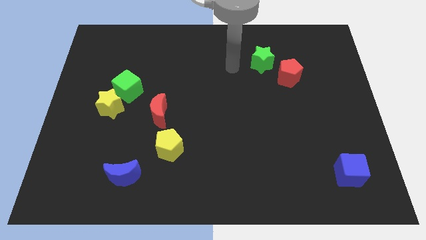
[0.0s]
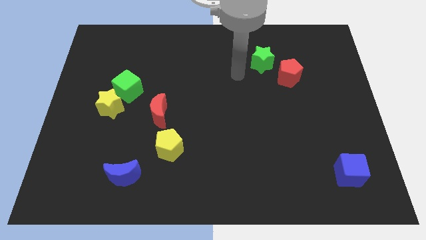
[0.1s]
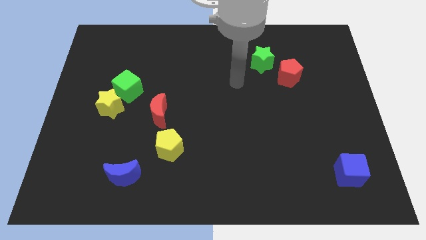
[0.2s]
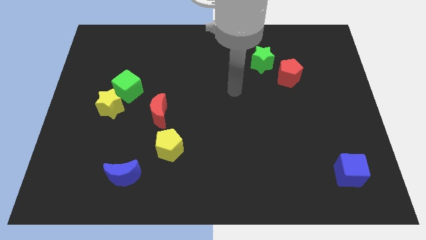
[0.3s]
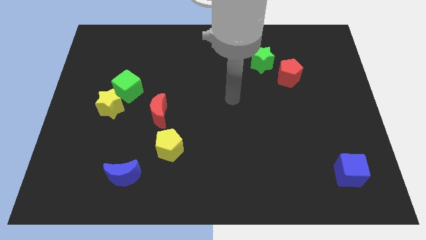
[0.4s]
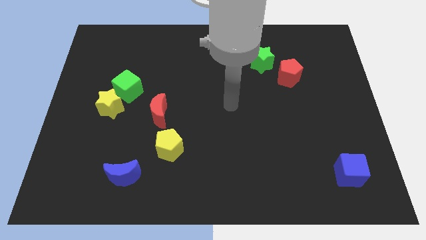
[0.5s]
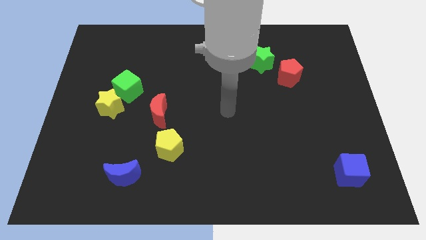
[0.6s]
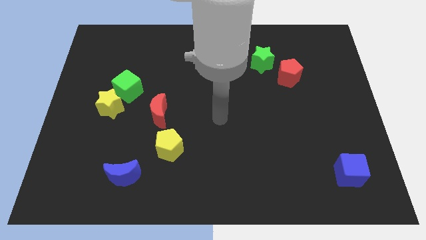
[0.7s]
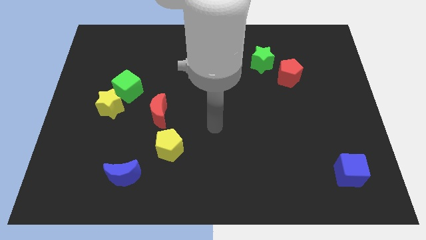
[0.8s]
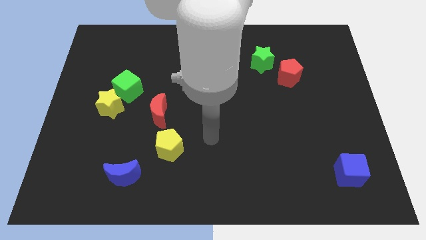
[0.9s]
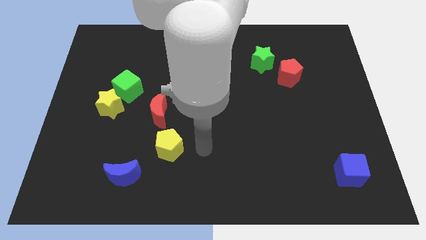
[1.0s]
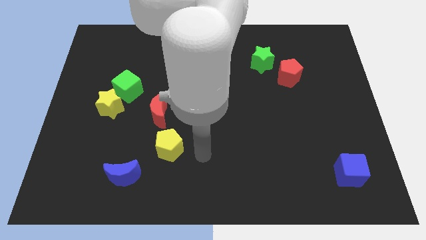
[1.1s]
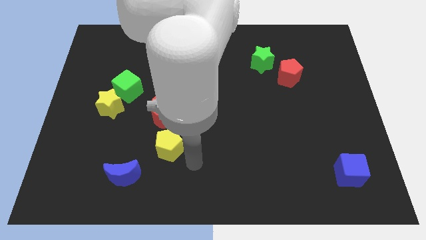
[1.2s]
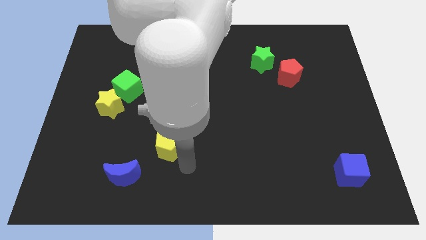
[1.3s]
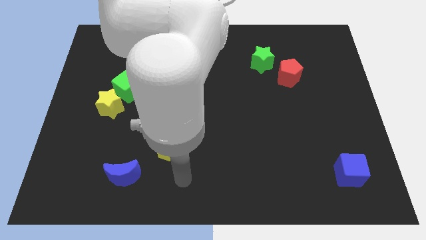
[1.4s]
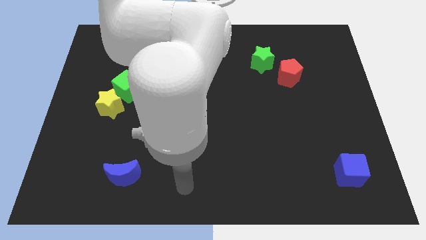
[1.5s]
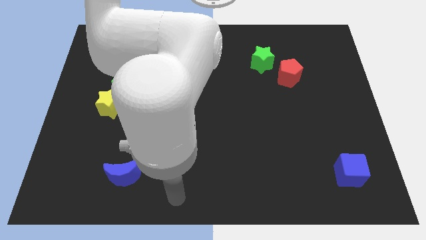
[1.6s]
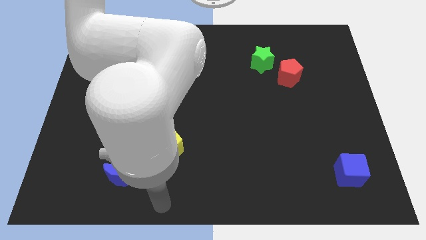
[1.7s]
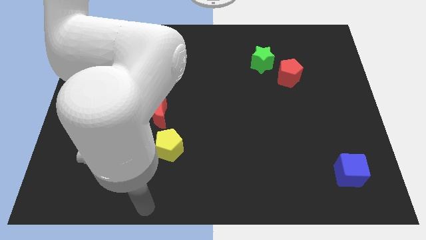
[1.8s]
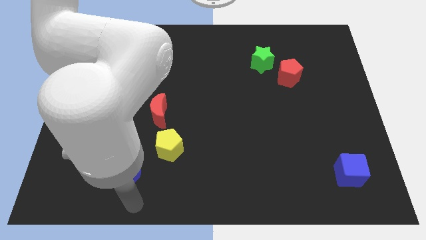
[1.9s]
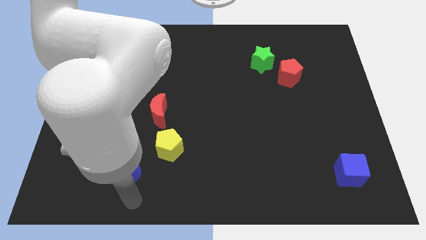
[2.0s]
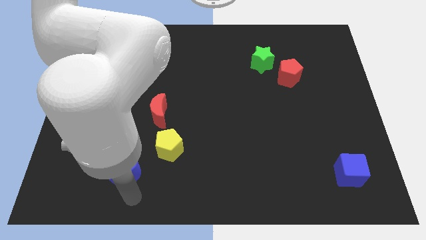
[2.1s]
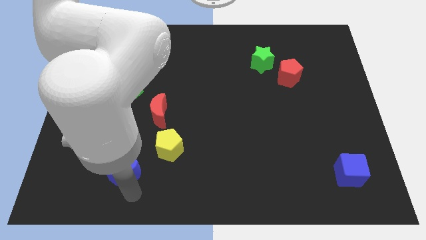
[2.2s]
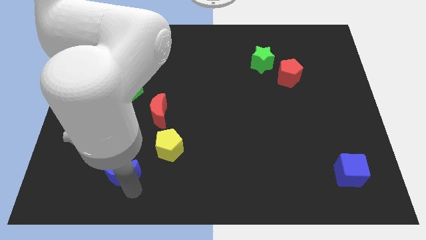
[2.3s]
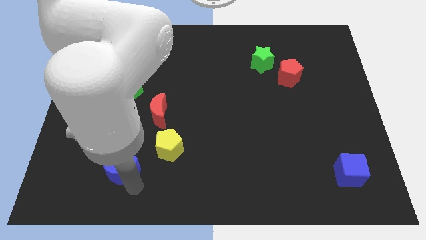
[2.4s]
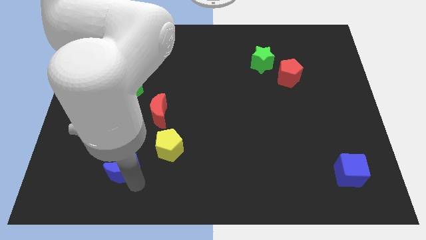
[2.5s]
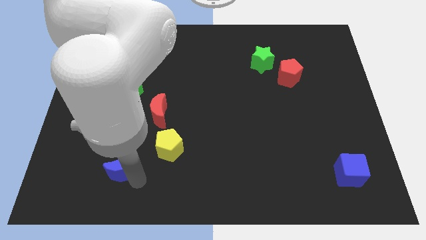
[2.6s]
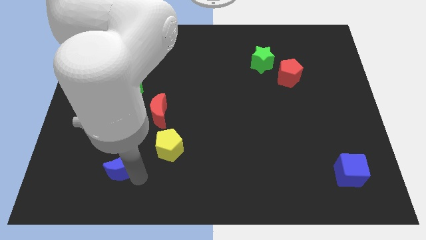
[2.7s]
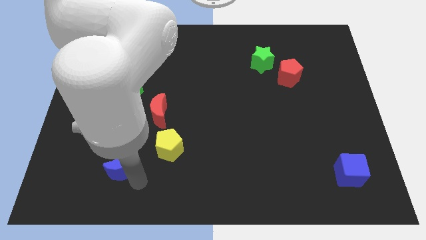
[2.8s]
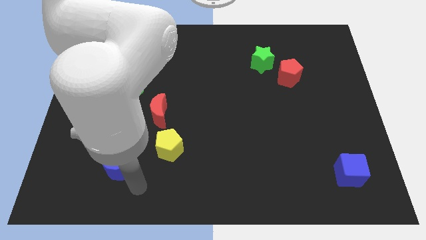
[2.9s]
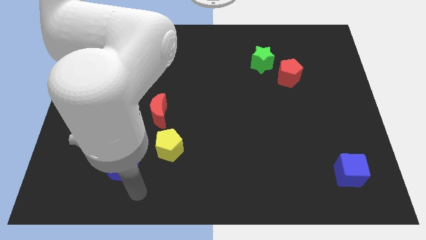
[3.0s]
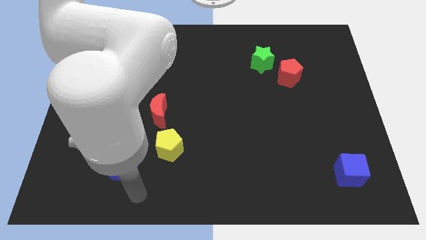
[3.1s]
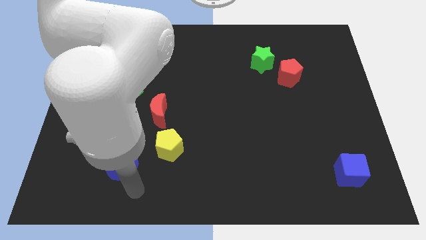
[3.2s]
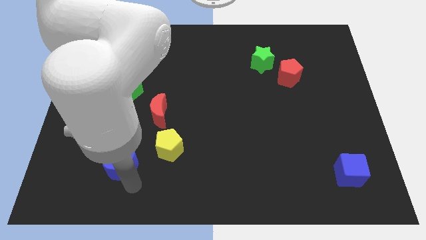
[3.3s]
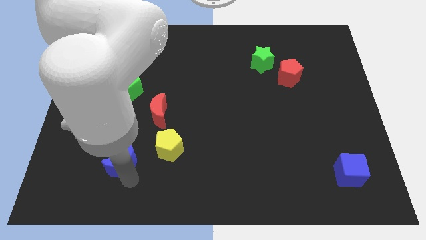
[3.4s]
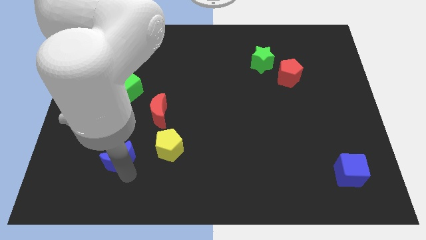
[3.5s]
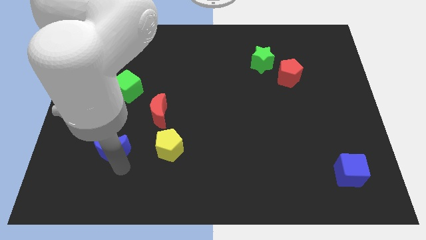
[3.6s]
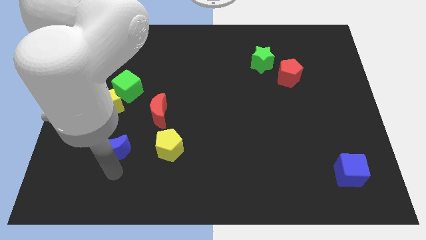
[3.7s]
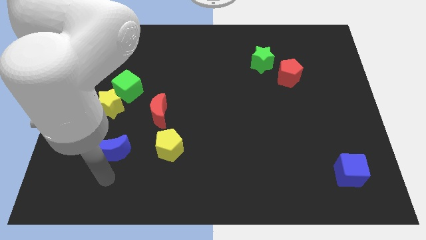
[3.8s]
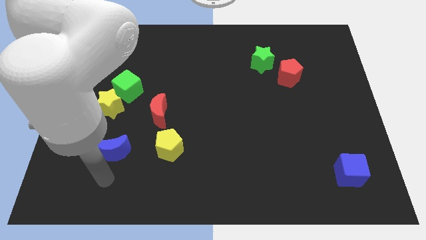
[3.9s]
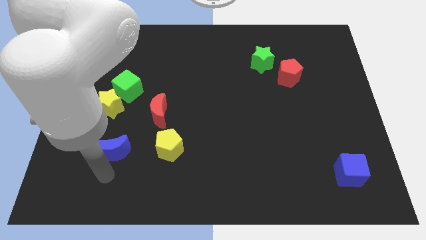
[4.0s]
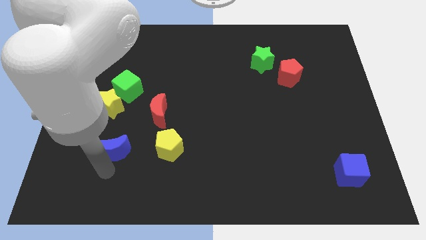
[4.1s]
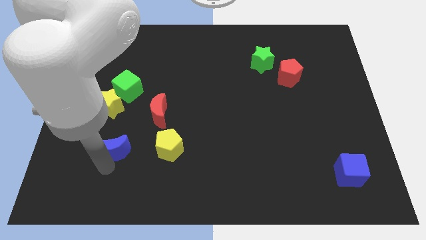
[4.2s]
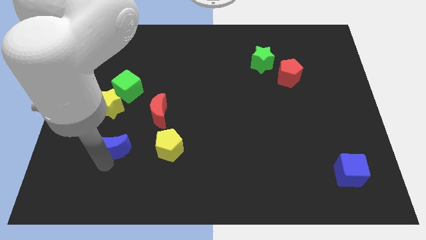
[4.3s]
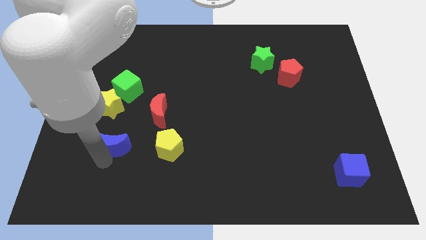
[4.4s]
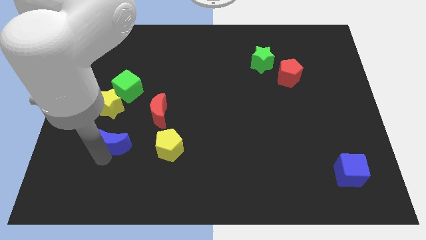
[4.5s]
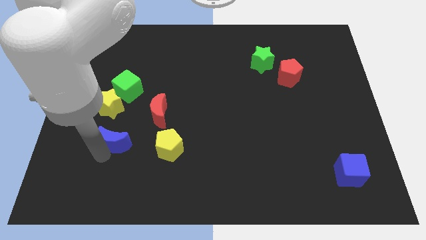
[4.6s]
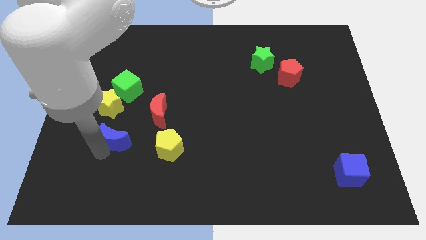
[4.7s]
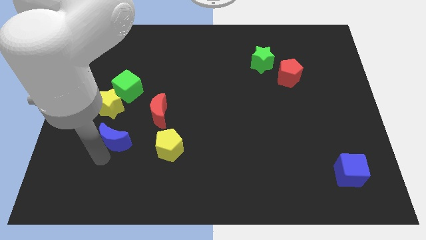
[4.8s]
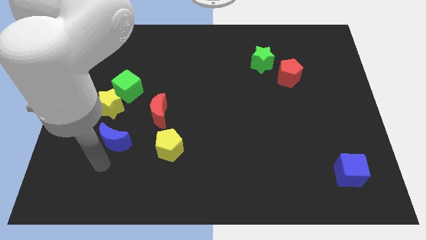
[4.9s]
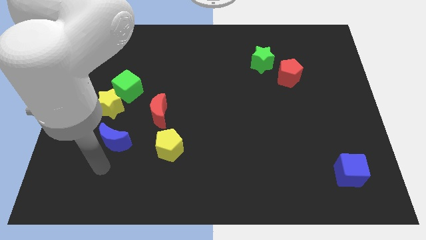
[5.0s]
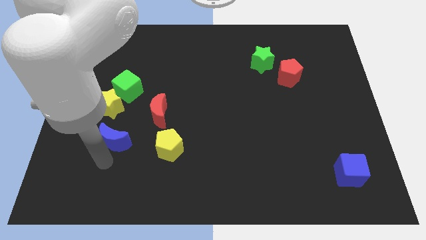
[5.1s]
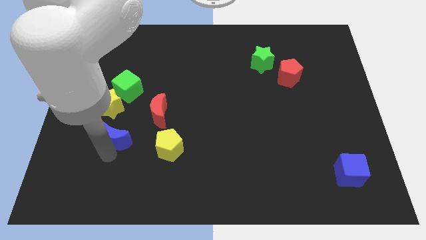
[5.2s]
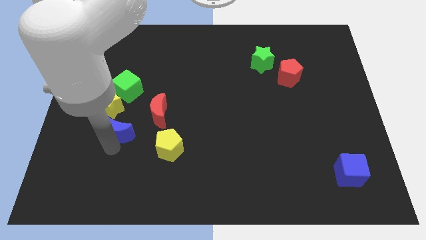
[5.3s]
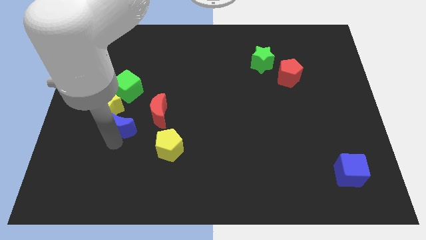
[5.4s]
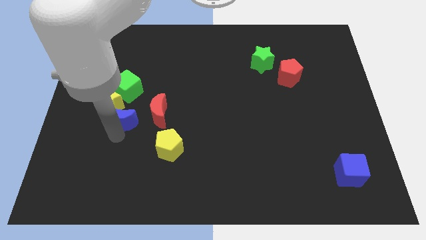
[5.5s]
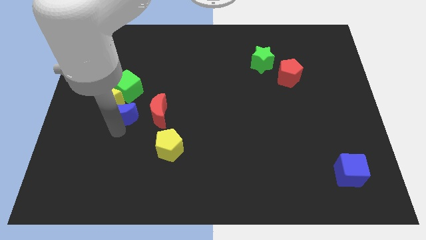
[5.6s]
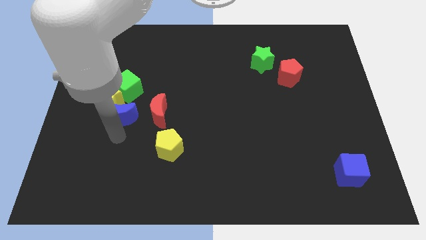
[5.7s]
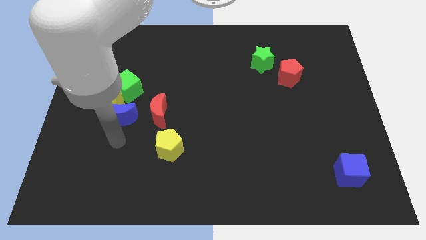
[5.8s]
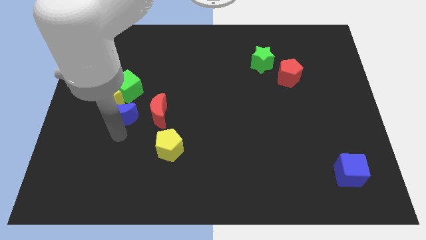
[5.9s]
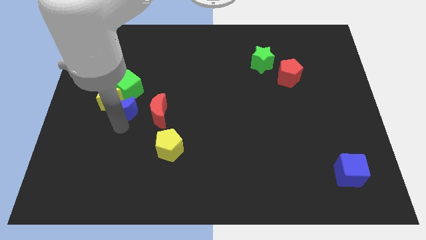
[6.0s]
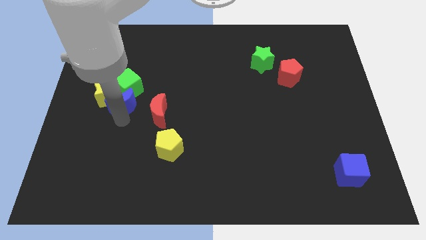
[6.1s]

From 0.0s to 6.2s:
put the blue moon to the green cube

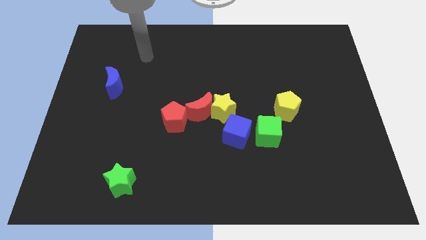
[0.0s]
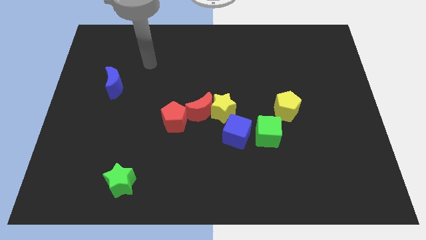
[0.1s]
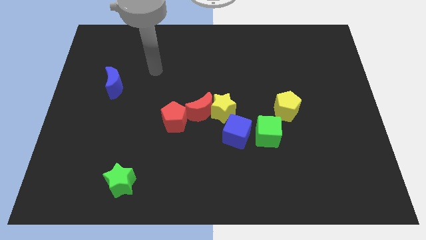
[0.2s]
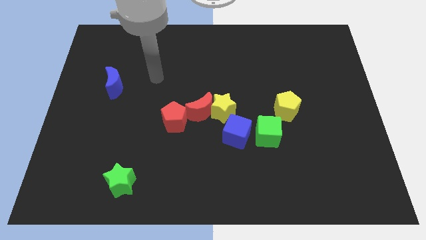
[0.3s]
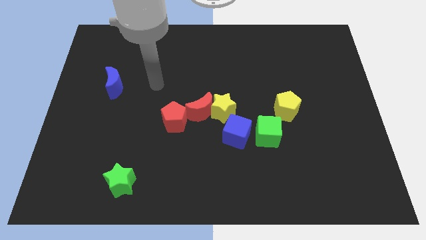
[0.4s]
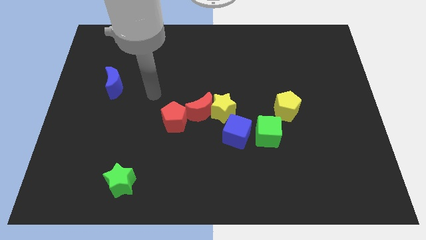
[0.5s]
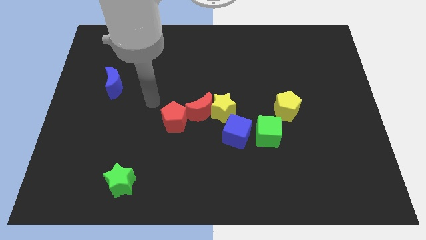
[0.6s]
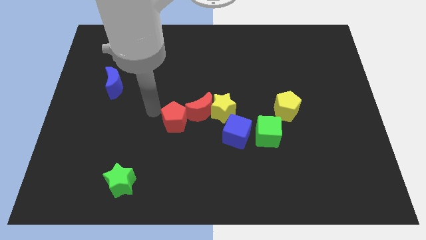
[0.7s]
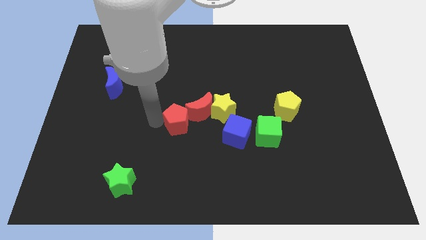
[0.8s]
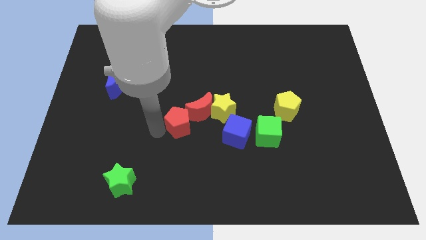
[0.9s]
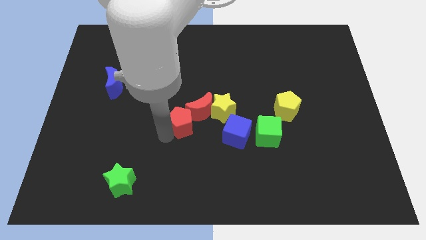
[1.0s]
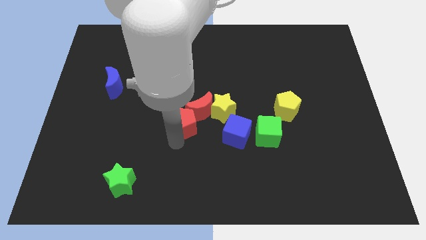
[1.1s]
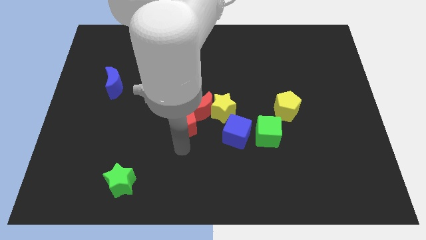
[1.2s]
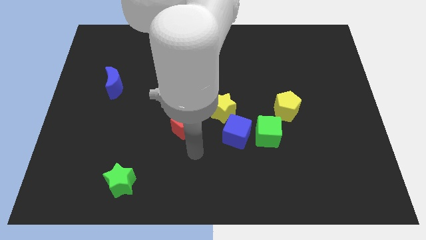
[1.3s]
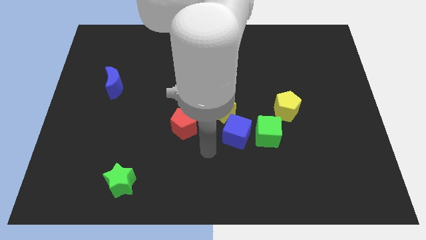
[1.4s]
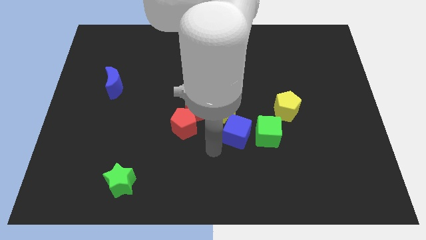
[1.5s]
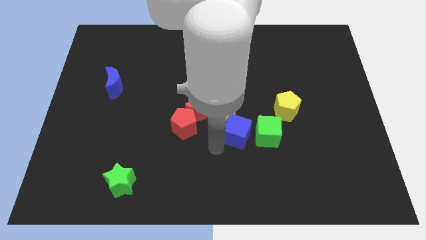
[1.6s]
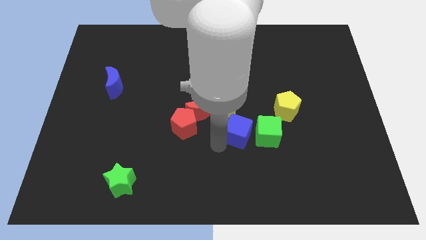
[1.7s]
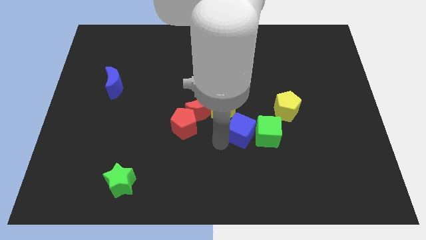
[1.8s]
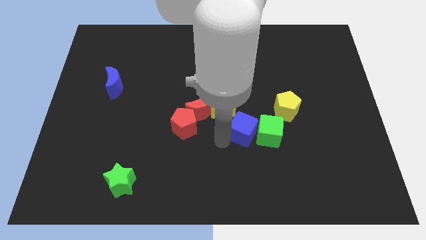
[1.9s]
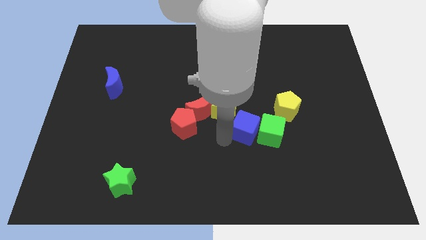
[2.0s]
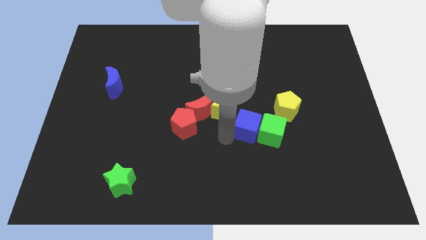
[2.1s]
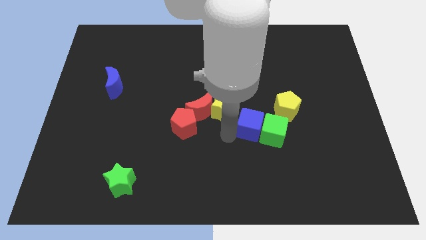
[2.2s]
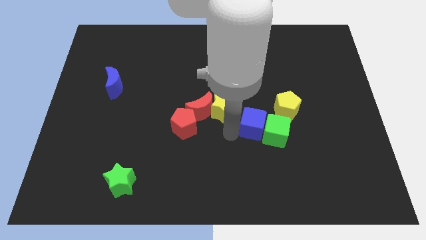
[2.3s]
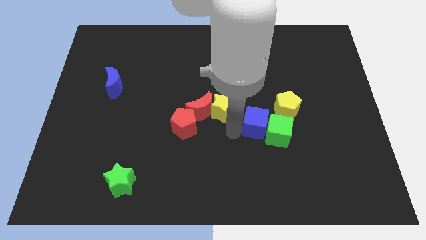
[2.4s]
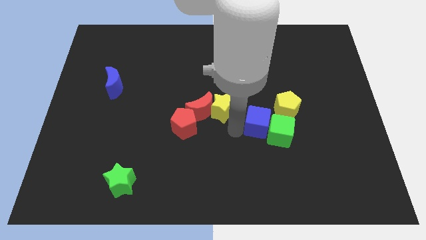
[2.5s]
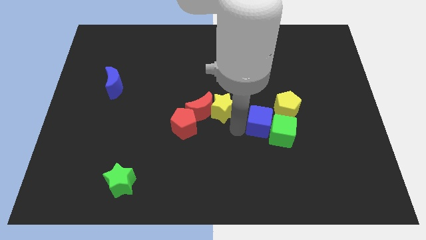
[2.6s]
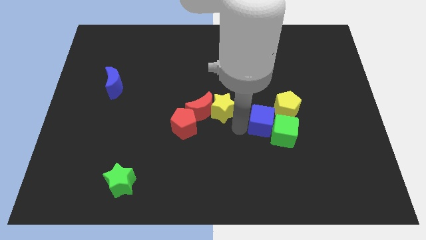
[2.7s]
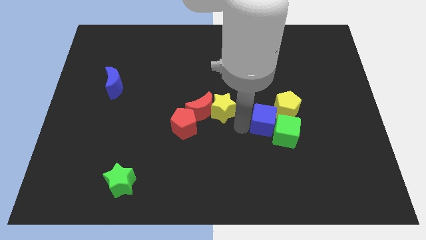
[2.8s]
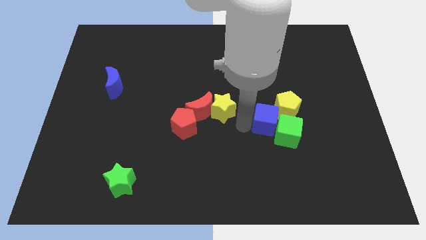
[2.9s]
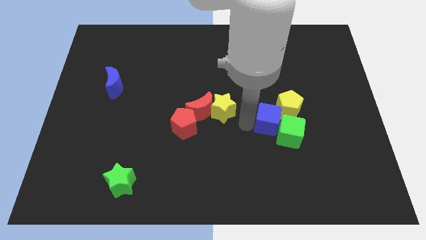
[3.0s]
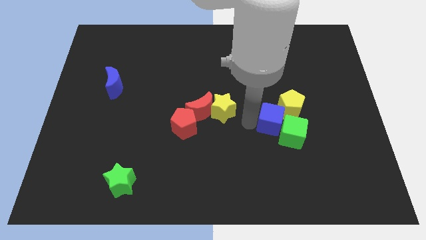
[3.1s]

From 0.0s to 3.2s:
put the blue cube next to the yellow pentagon
